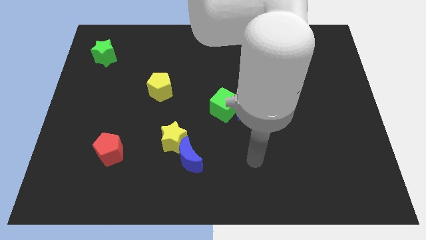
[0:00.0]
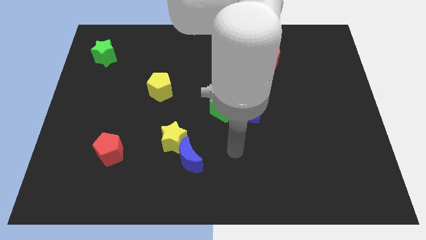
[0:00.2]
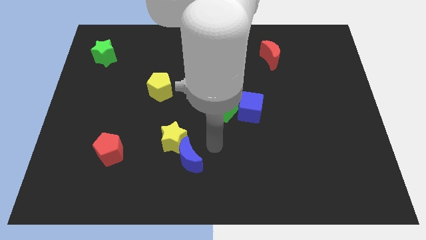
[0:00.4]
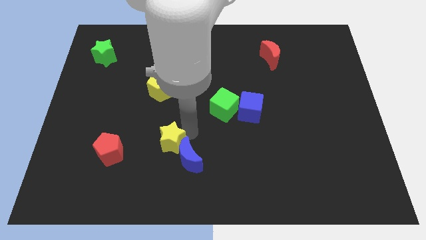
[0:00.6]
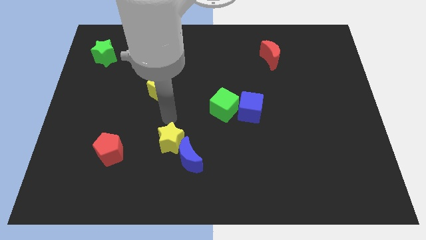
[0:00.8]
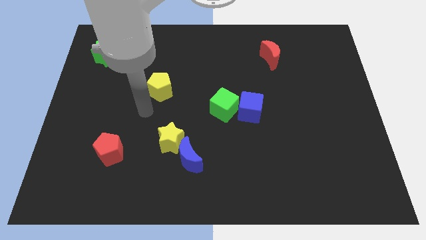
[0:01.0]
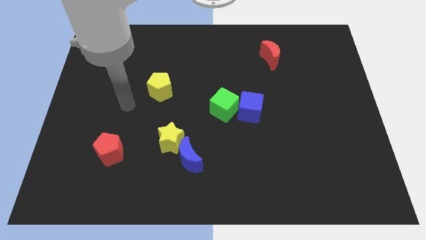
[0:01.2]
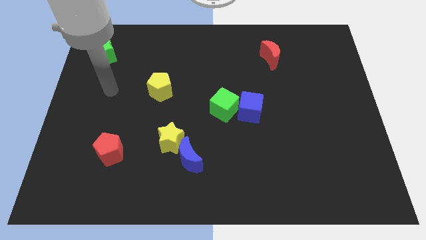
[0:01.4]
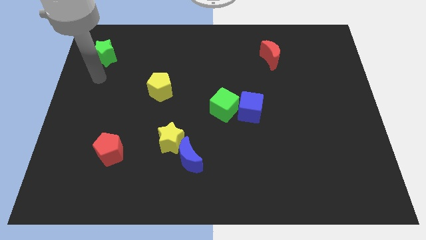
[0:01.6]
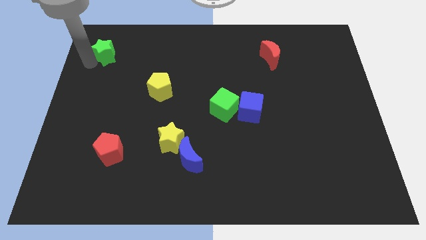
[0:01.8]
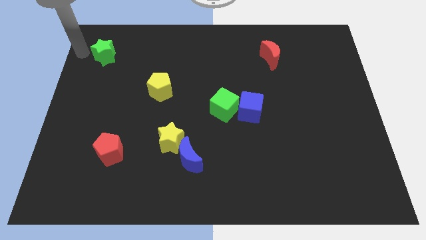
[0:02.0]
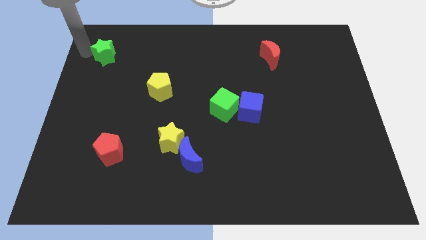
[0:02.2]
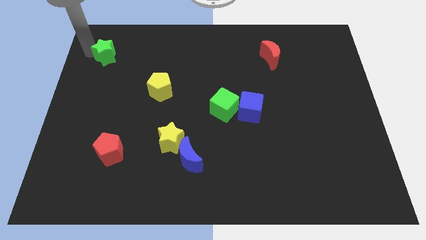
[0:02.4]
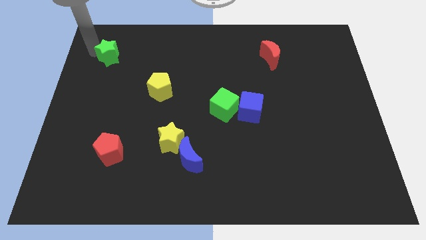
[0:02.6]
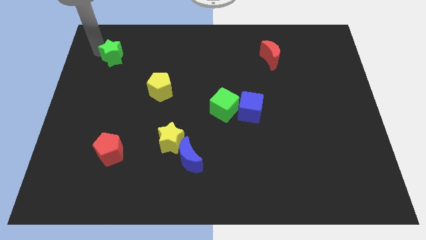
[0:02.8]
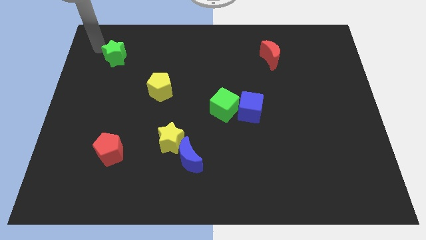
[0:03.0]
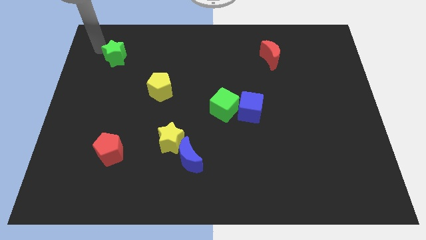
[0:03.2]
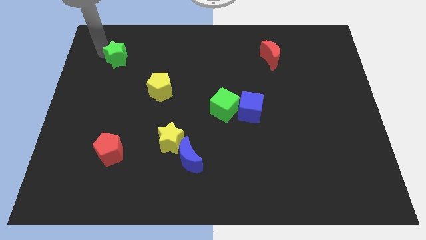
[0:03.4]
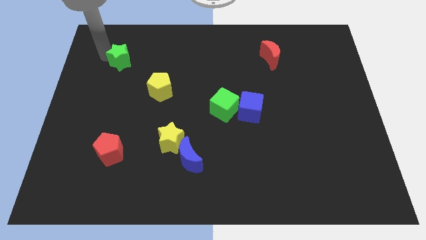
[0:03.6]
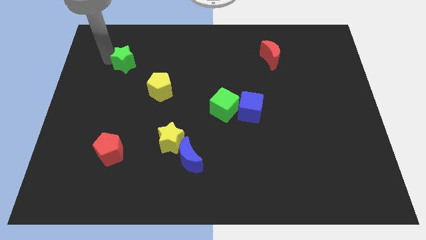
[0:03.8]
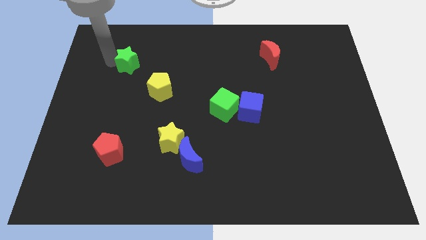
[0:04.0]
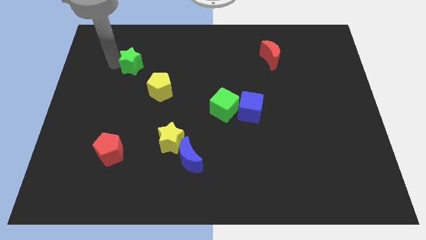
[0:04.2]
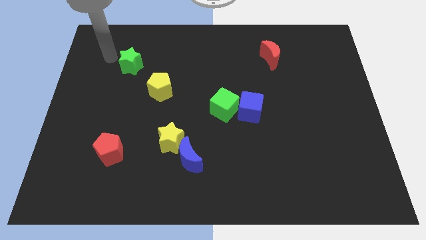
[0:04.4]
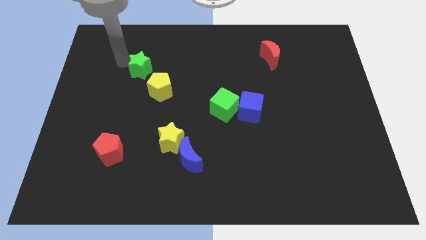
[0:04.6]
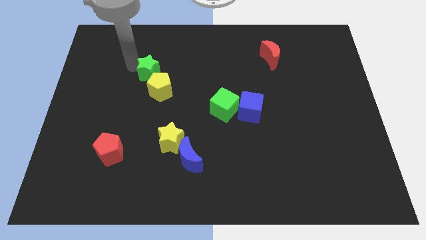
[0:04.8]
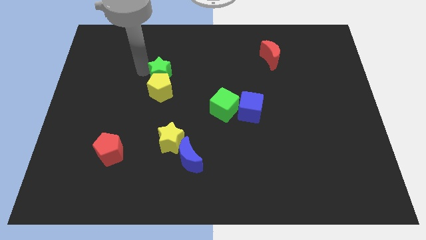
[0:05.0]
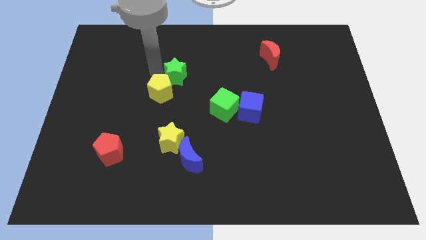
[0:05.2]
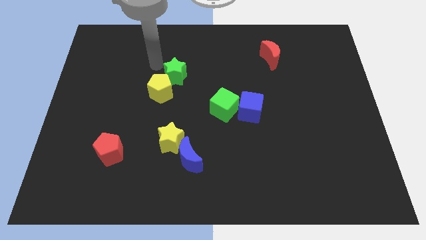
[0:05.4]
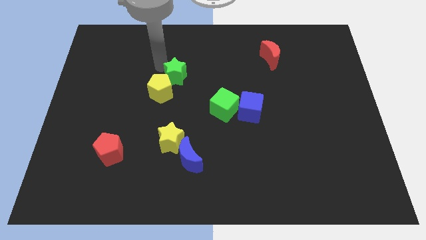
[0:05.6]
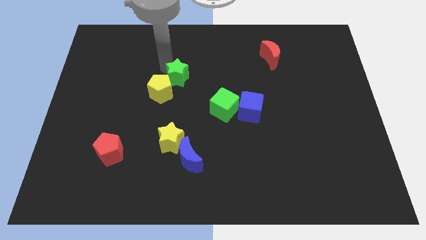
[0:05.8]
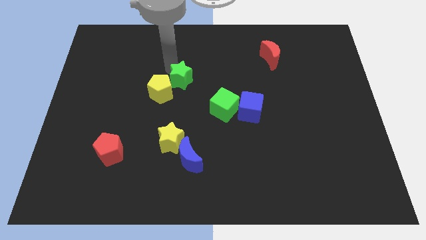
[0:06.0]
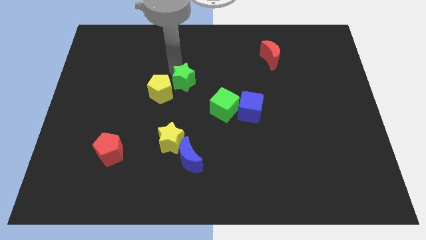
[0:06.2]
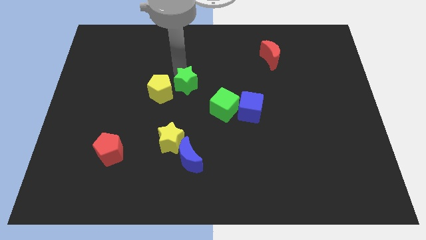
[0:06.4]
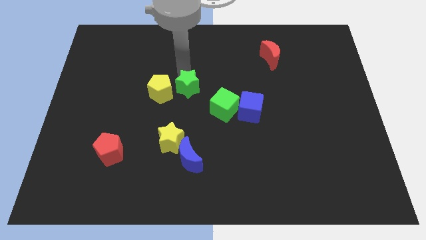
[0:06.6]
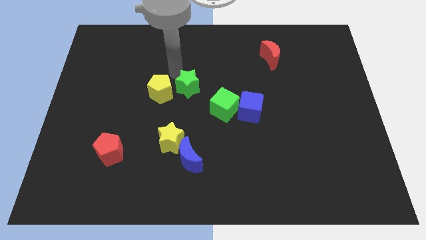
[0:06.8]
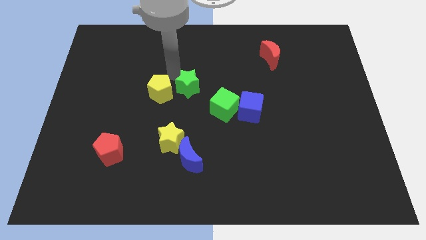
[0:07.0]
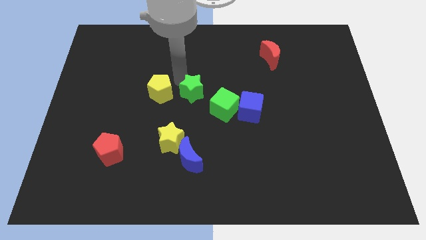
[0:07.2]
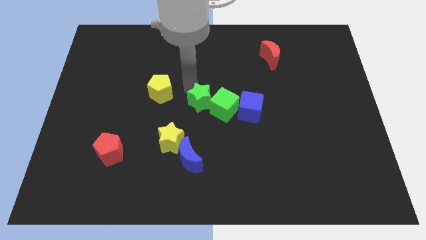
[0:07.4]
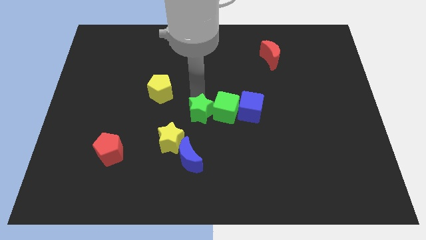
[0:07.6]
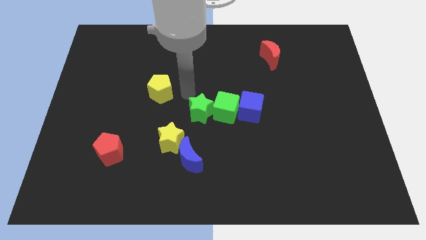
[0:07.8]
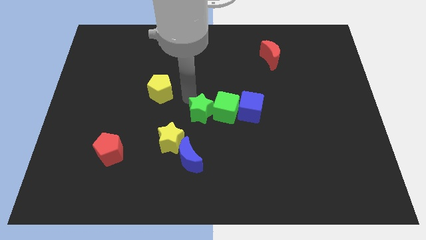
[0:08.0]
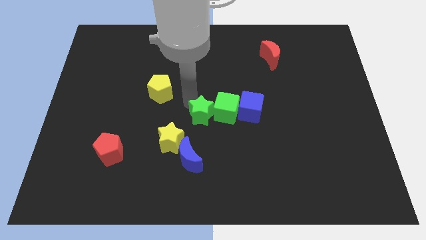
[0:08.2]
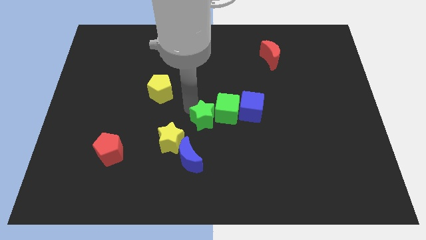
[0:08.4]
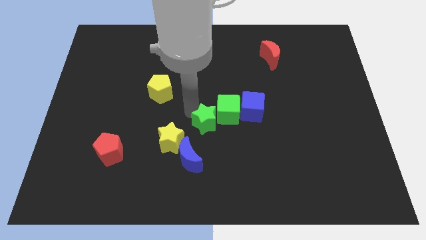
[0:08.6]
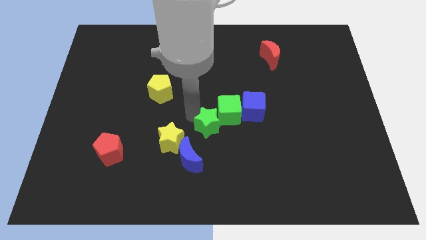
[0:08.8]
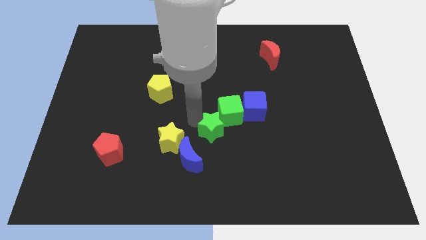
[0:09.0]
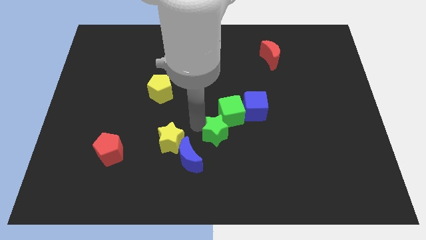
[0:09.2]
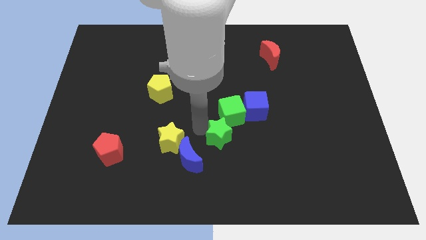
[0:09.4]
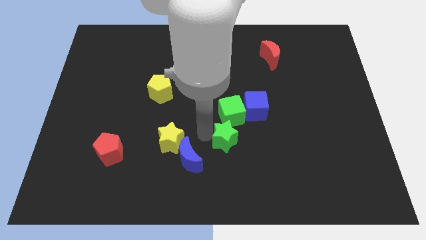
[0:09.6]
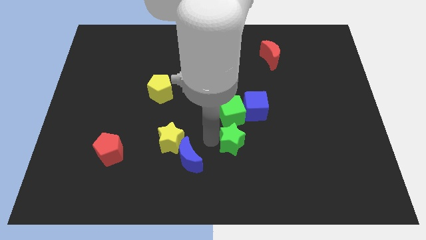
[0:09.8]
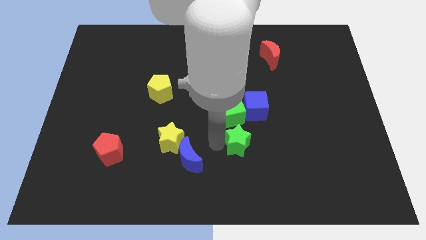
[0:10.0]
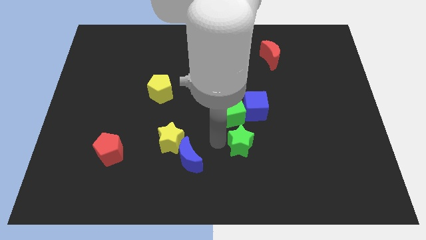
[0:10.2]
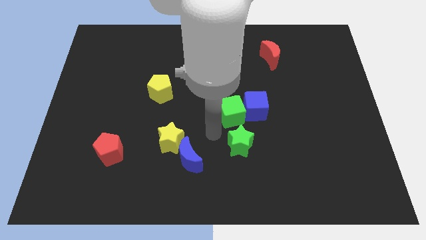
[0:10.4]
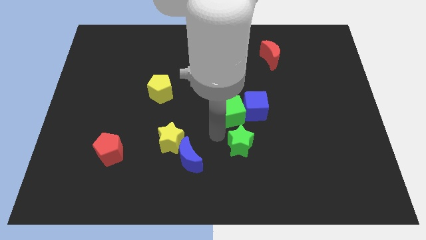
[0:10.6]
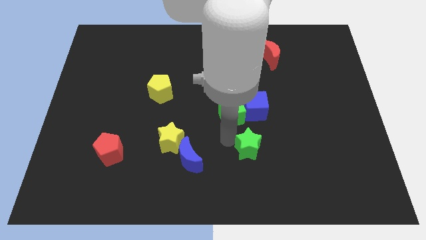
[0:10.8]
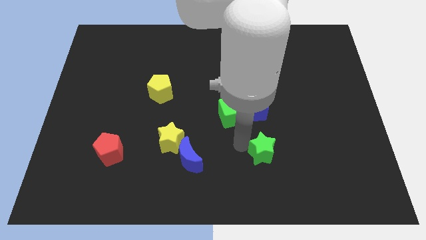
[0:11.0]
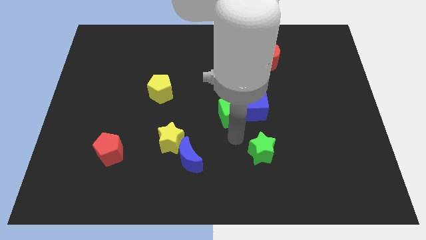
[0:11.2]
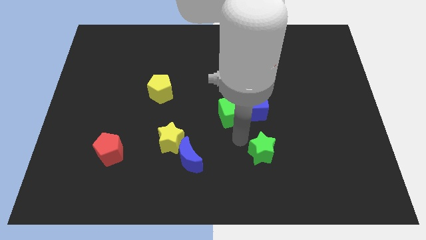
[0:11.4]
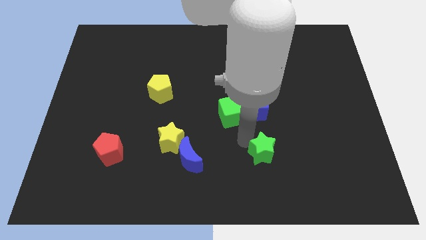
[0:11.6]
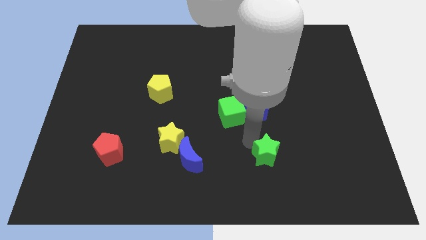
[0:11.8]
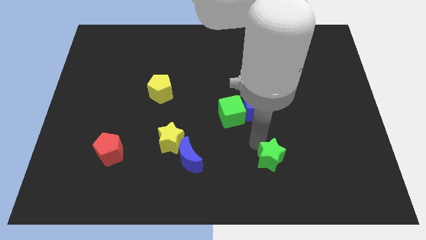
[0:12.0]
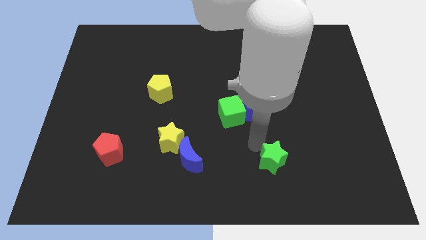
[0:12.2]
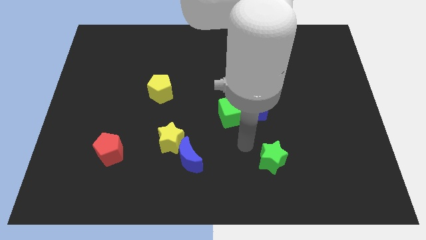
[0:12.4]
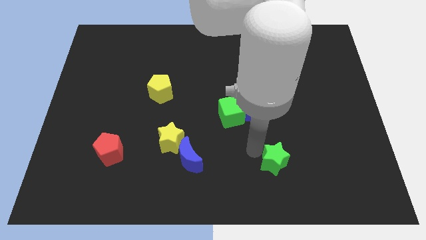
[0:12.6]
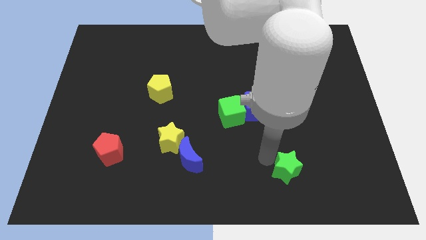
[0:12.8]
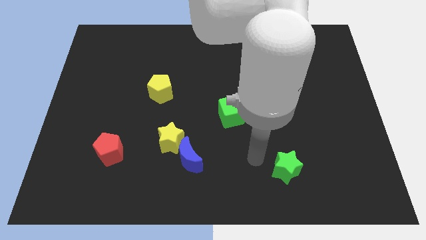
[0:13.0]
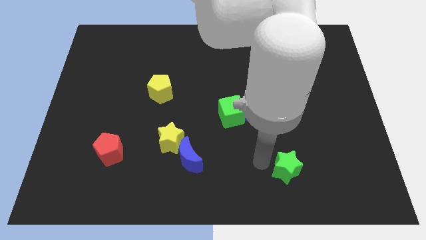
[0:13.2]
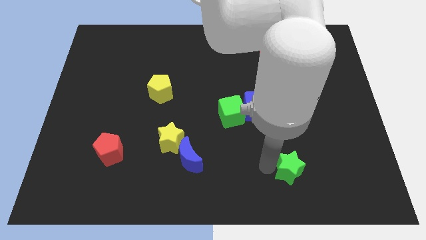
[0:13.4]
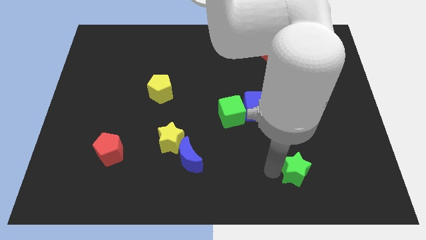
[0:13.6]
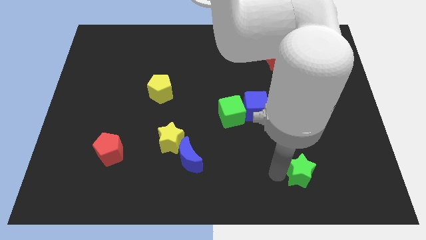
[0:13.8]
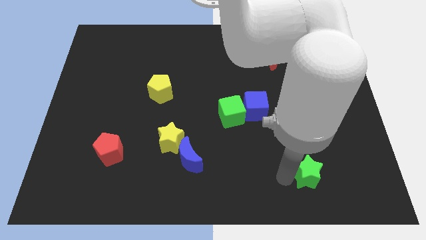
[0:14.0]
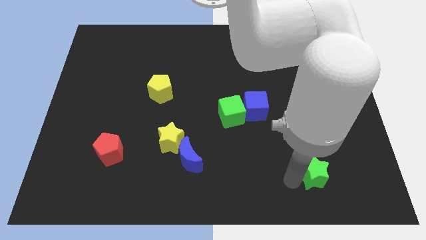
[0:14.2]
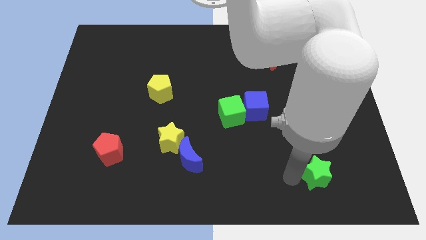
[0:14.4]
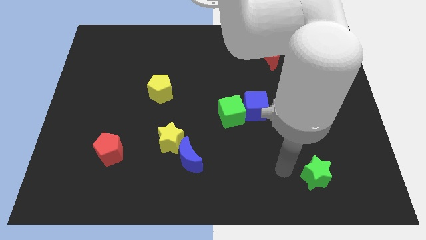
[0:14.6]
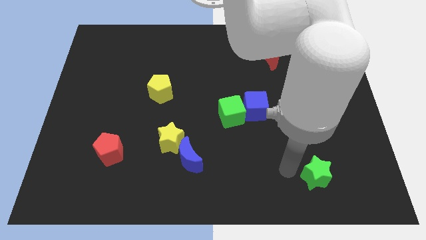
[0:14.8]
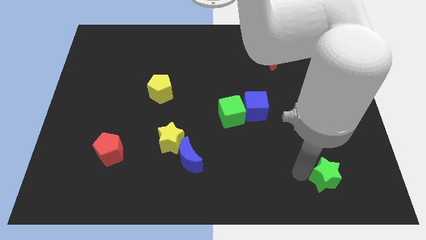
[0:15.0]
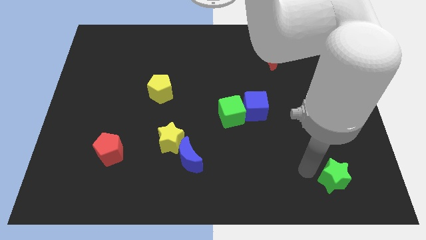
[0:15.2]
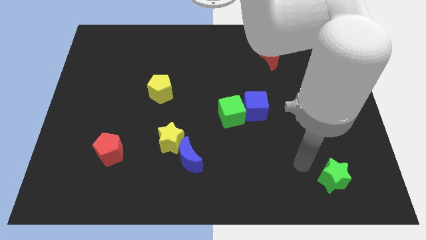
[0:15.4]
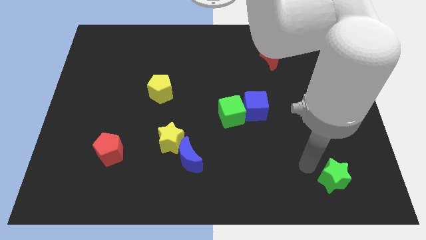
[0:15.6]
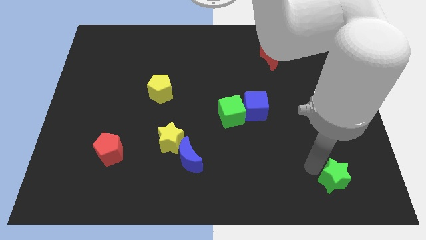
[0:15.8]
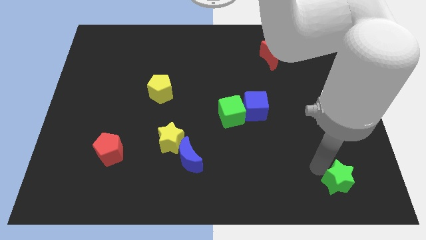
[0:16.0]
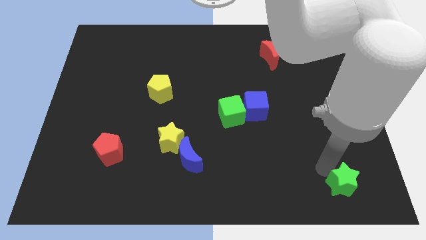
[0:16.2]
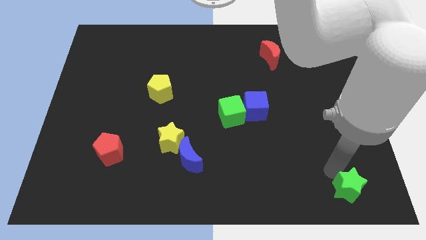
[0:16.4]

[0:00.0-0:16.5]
put the green star to the bottom right corner
